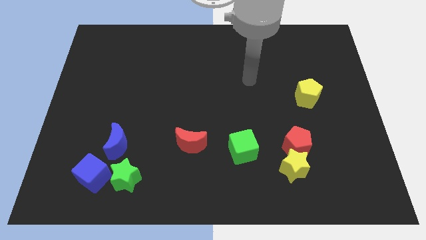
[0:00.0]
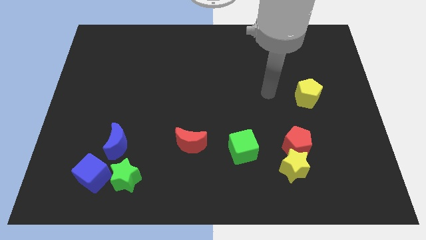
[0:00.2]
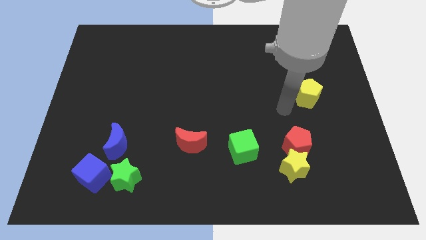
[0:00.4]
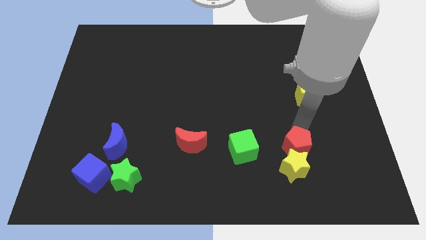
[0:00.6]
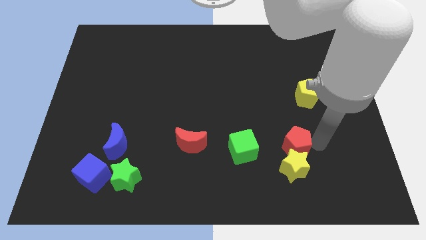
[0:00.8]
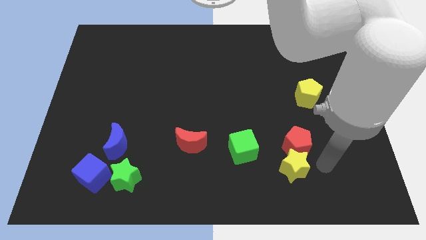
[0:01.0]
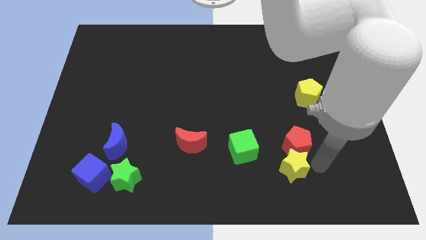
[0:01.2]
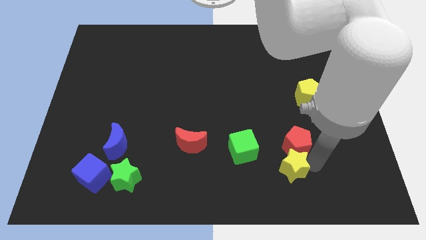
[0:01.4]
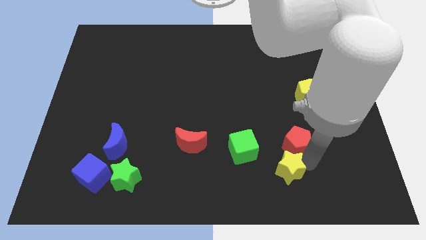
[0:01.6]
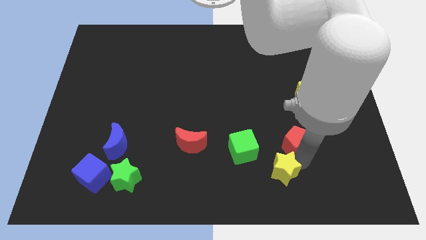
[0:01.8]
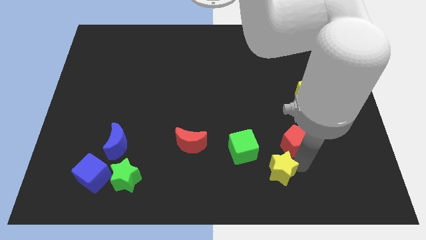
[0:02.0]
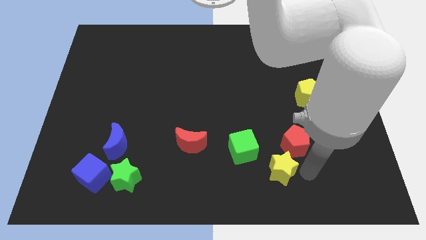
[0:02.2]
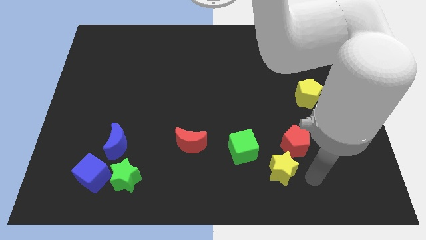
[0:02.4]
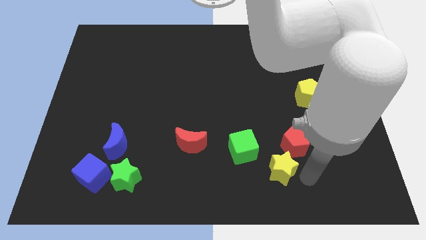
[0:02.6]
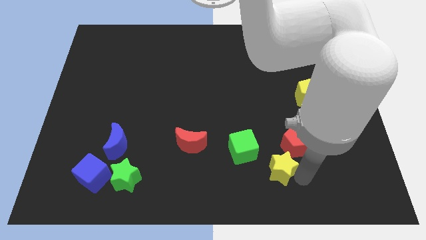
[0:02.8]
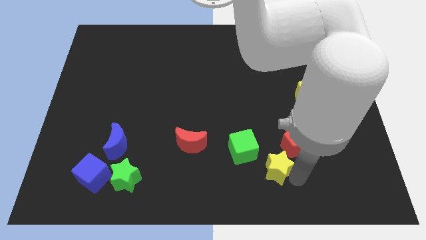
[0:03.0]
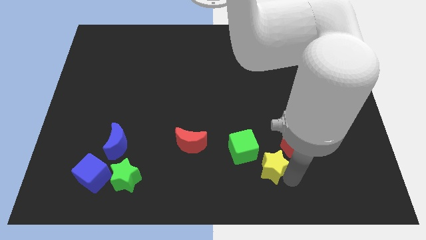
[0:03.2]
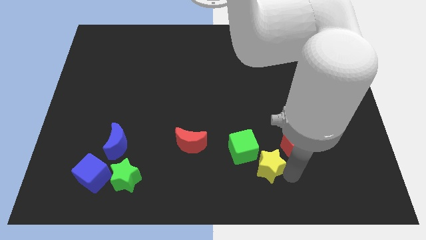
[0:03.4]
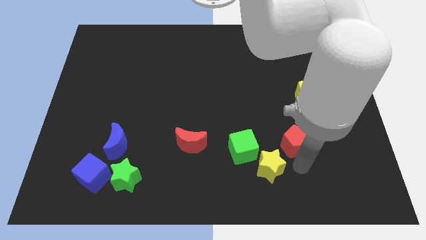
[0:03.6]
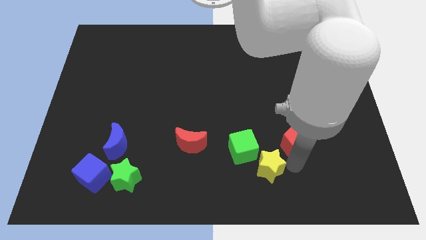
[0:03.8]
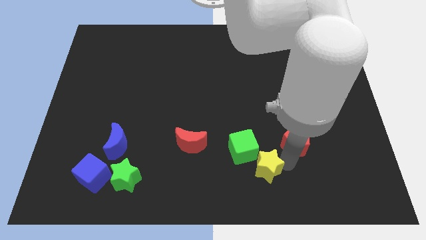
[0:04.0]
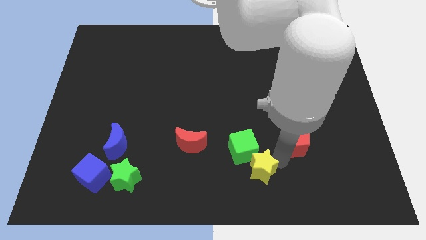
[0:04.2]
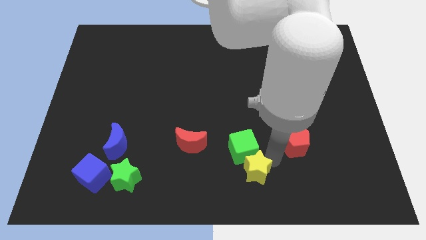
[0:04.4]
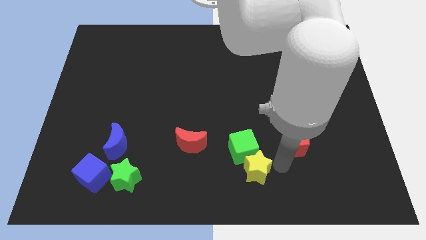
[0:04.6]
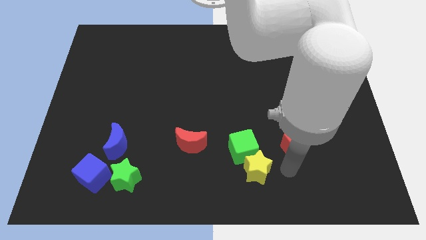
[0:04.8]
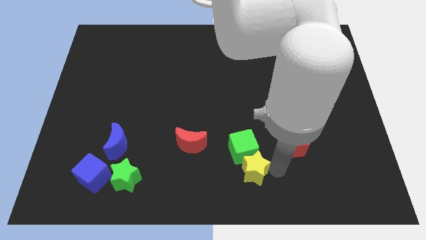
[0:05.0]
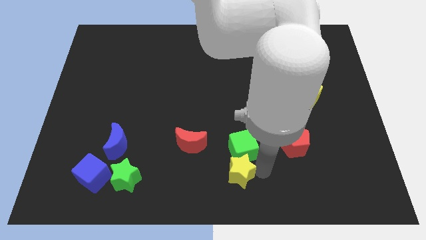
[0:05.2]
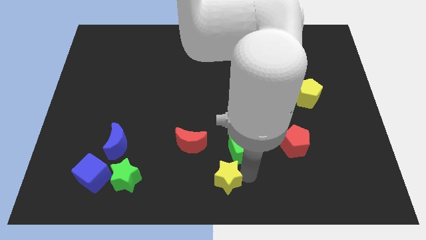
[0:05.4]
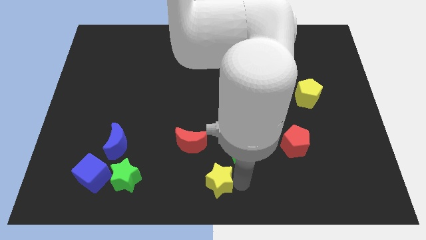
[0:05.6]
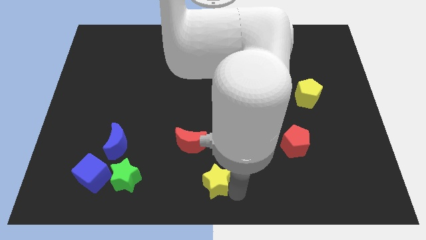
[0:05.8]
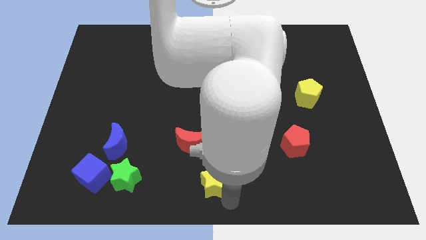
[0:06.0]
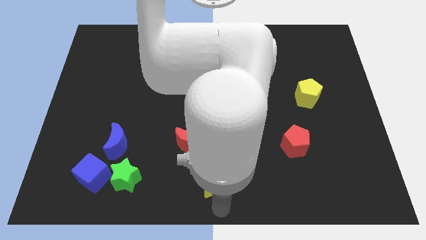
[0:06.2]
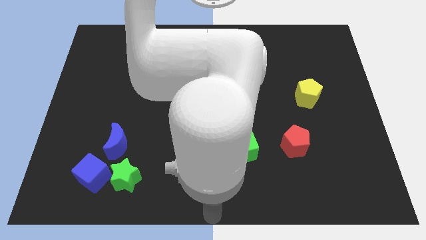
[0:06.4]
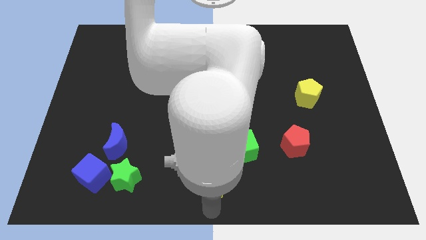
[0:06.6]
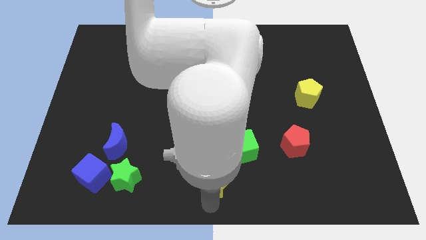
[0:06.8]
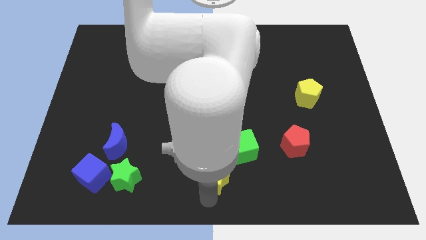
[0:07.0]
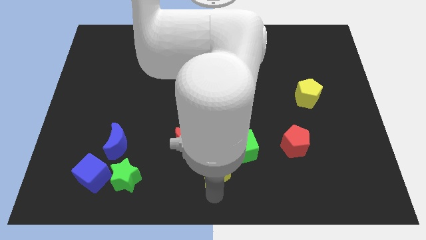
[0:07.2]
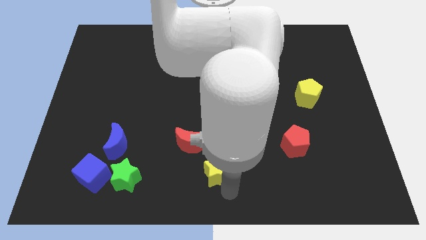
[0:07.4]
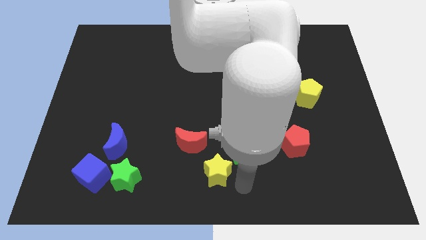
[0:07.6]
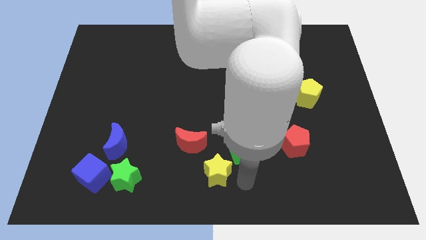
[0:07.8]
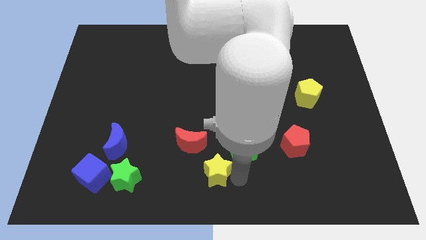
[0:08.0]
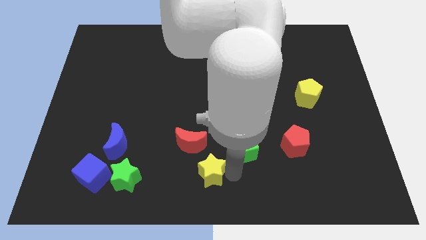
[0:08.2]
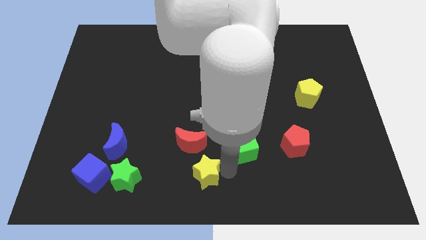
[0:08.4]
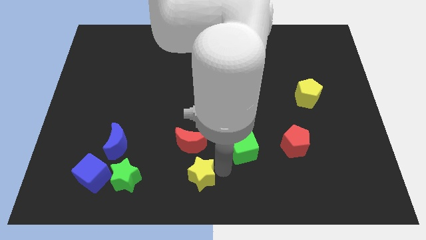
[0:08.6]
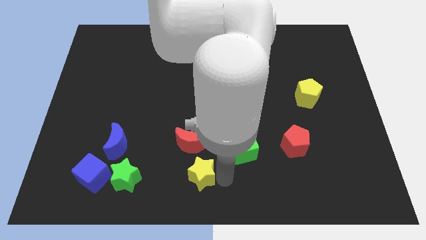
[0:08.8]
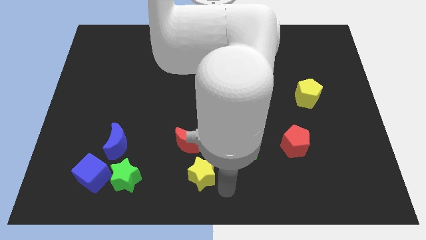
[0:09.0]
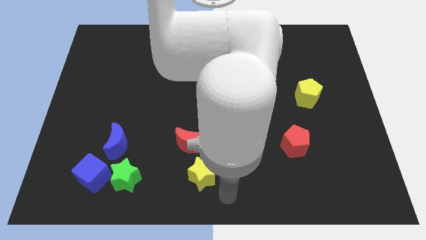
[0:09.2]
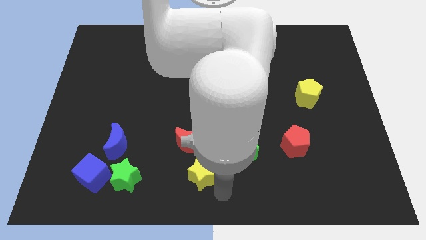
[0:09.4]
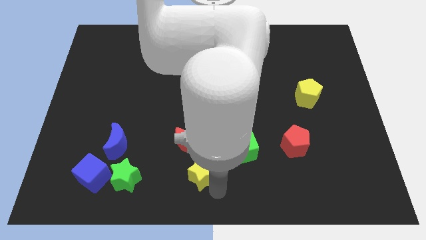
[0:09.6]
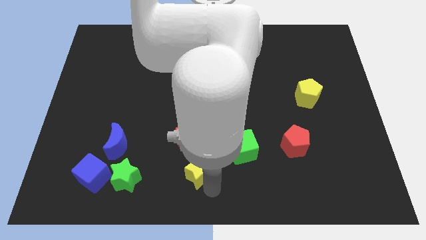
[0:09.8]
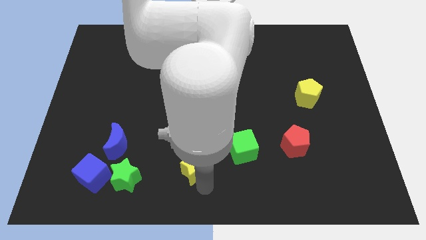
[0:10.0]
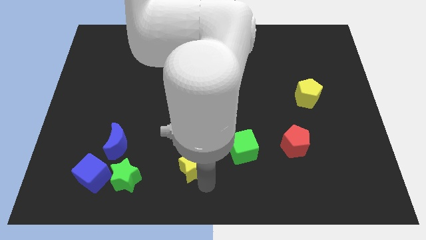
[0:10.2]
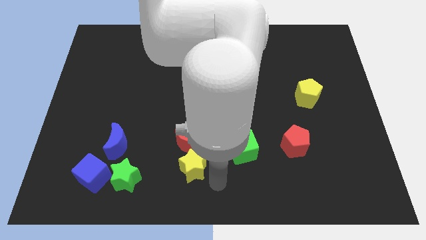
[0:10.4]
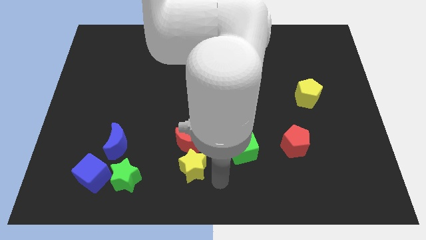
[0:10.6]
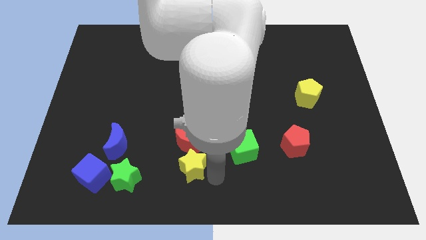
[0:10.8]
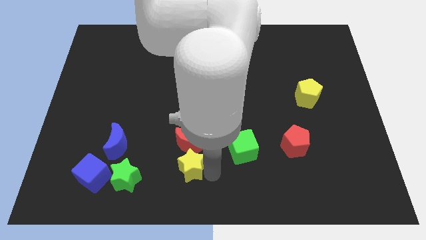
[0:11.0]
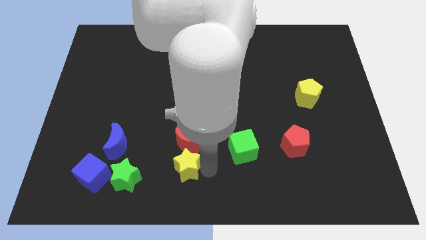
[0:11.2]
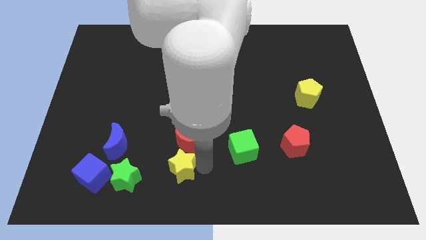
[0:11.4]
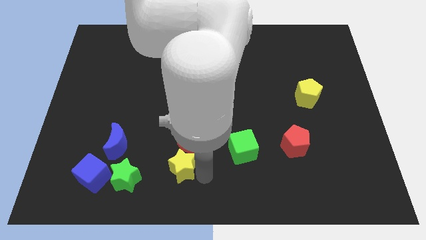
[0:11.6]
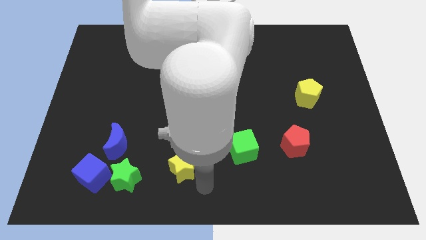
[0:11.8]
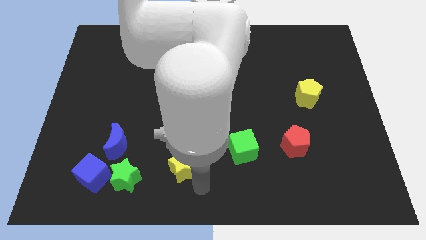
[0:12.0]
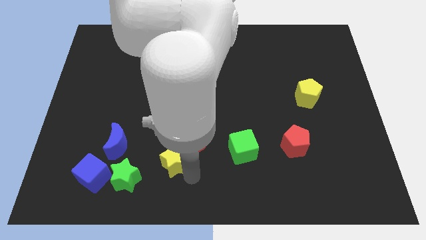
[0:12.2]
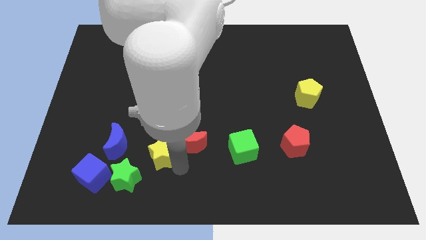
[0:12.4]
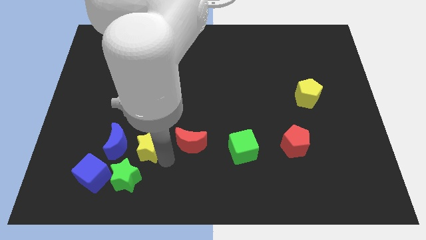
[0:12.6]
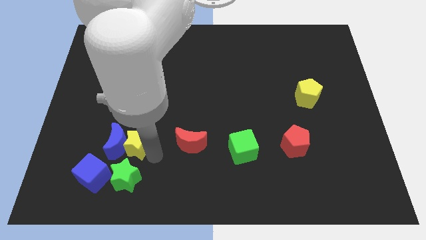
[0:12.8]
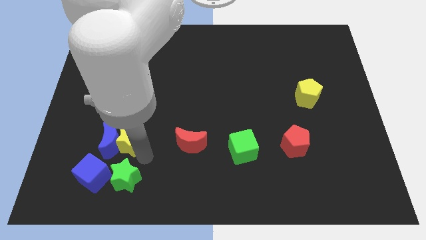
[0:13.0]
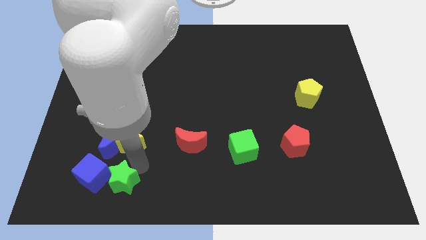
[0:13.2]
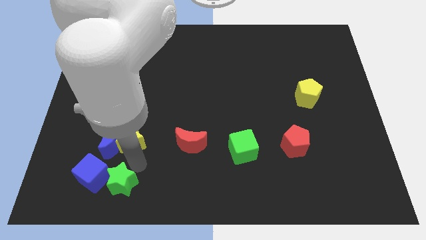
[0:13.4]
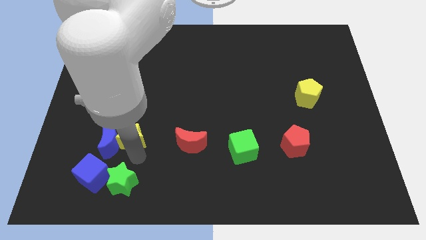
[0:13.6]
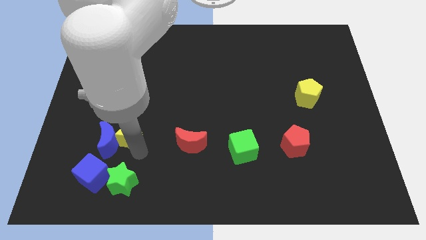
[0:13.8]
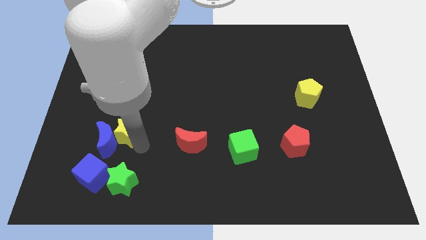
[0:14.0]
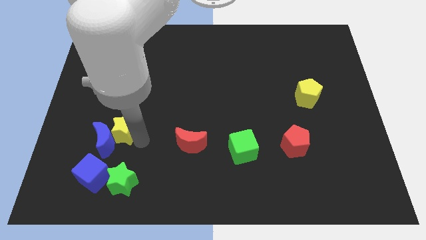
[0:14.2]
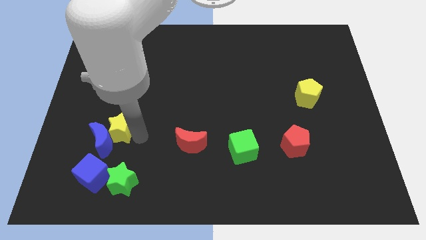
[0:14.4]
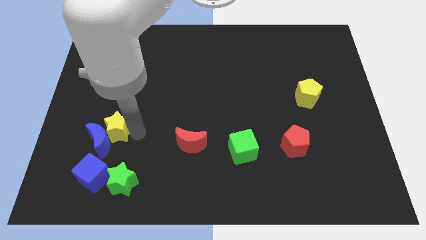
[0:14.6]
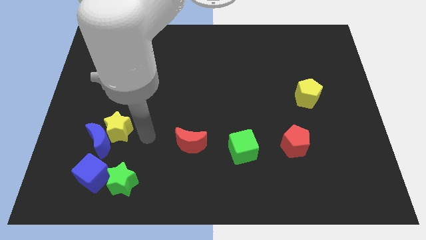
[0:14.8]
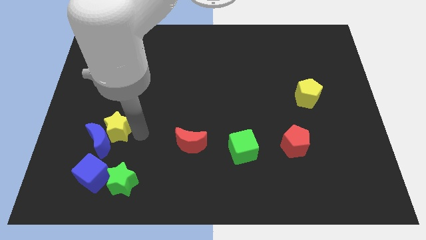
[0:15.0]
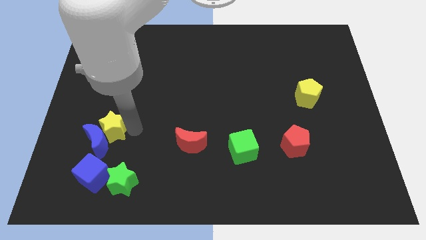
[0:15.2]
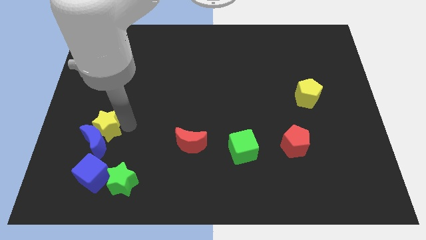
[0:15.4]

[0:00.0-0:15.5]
move the yellow star diagonally up and to the left of the blue moon
